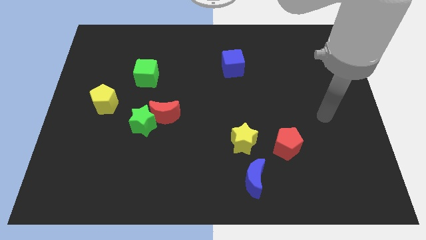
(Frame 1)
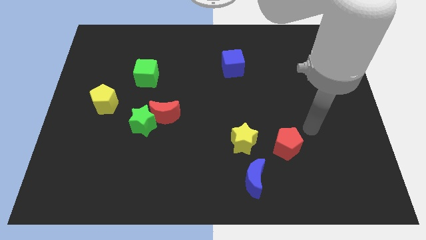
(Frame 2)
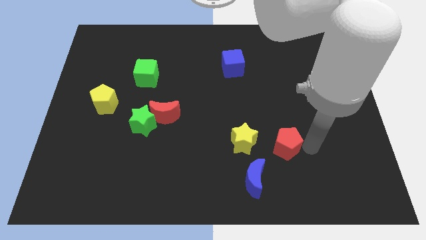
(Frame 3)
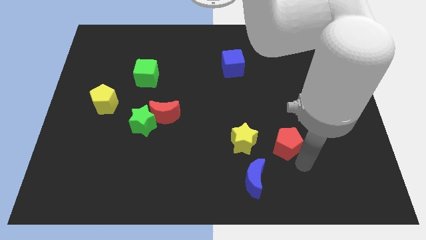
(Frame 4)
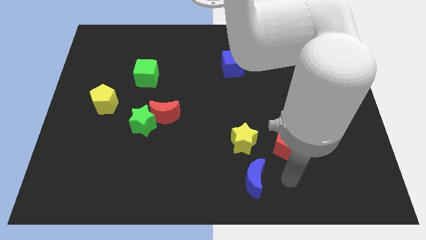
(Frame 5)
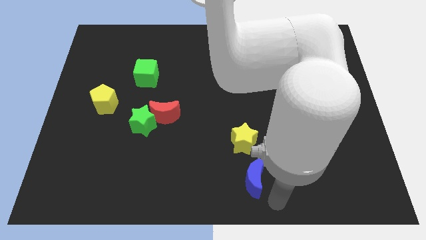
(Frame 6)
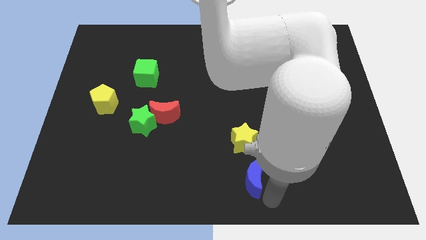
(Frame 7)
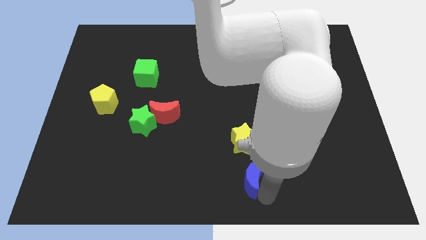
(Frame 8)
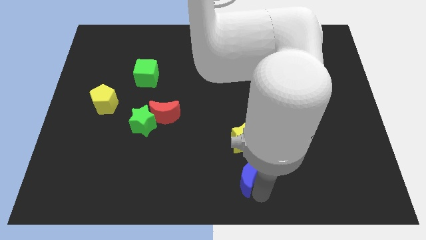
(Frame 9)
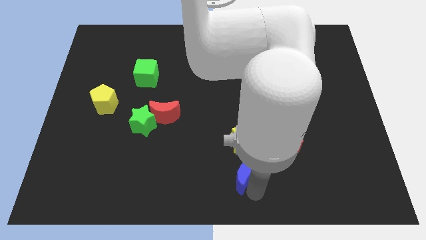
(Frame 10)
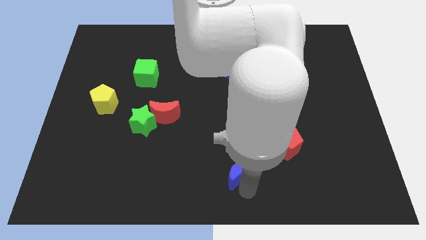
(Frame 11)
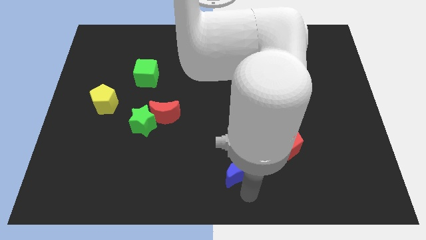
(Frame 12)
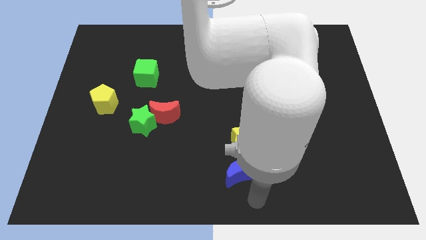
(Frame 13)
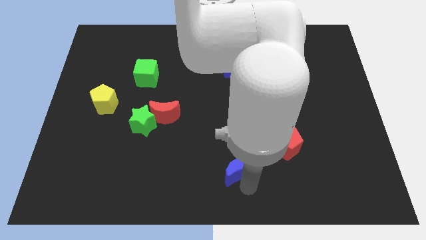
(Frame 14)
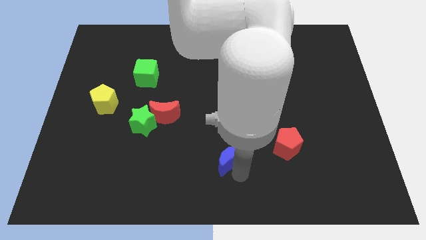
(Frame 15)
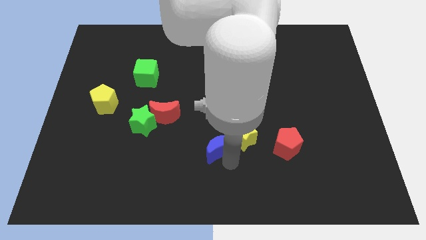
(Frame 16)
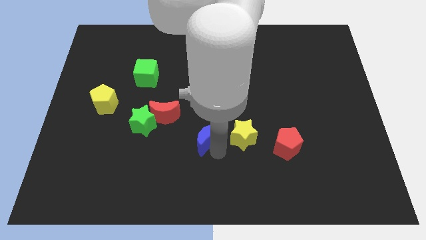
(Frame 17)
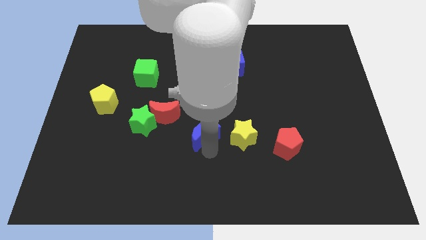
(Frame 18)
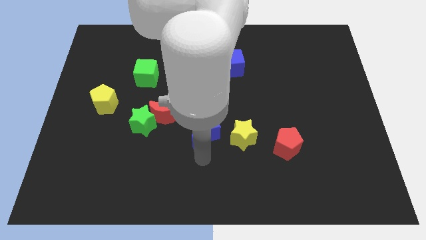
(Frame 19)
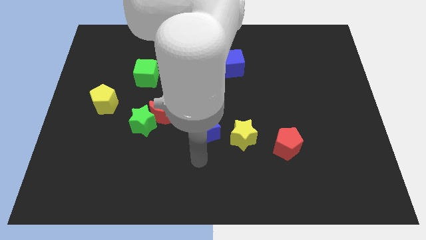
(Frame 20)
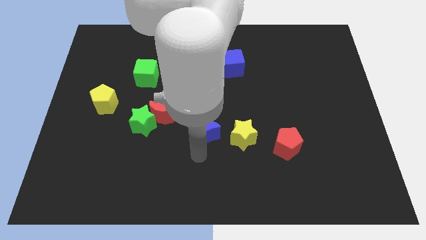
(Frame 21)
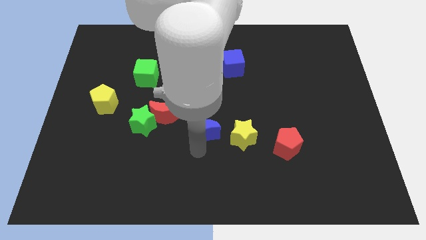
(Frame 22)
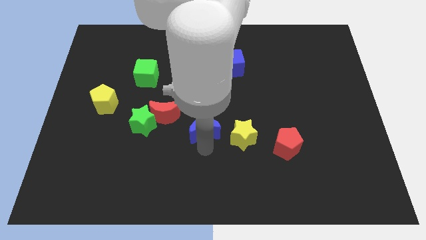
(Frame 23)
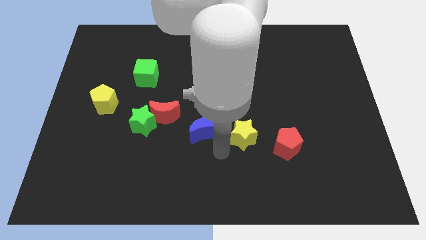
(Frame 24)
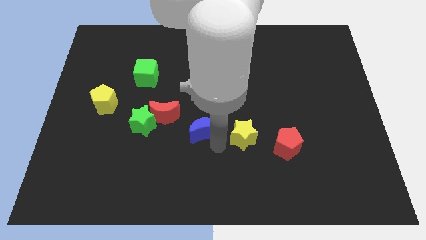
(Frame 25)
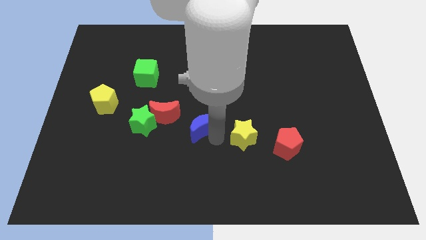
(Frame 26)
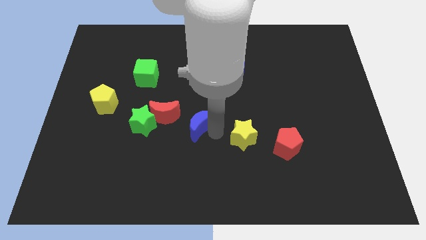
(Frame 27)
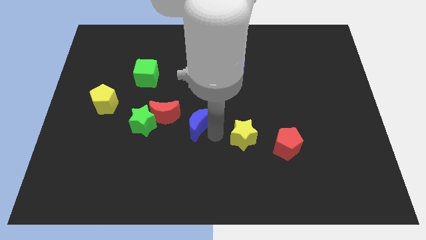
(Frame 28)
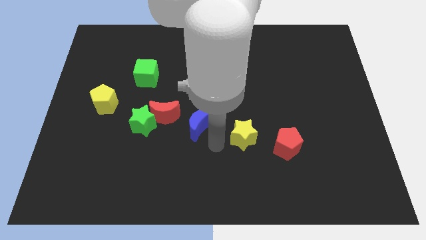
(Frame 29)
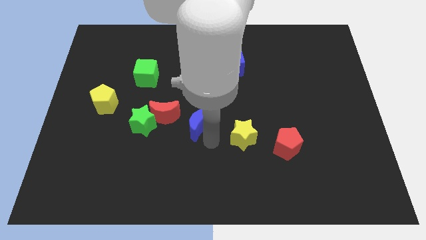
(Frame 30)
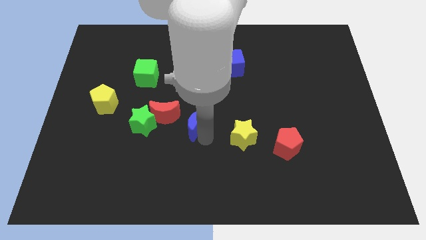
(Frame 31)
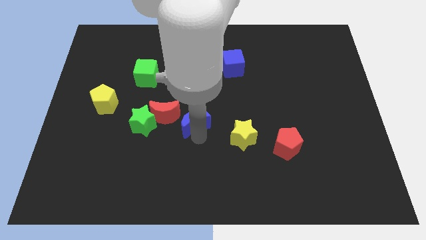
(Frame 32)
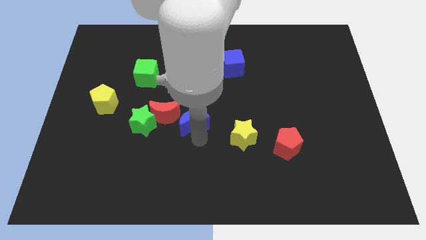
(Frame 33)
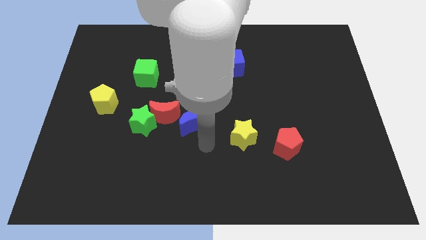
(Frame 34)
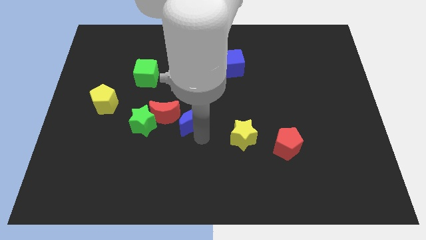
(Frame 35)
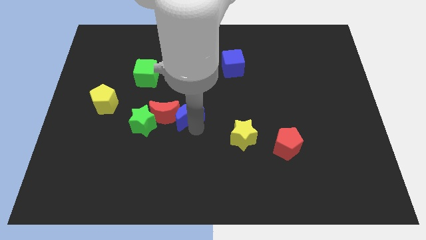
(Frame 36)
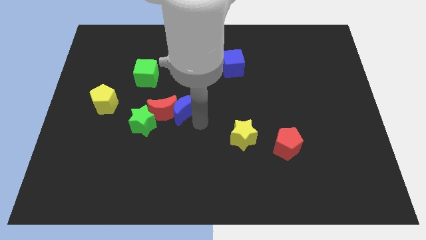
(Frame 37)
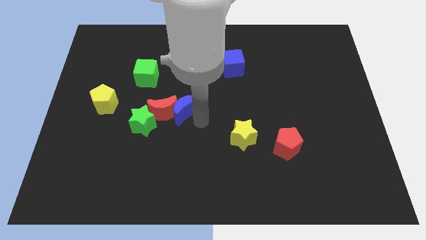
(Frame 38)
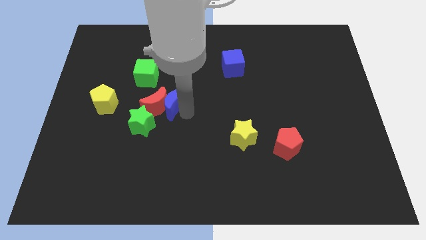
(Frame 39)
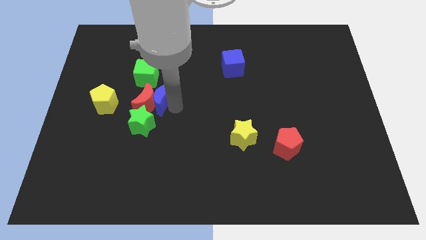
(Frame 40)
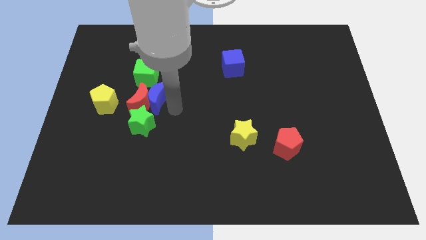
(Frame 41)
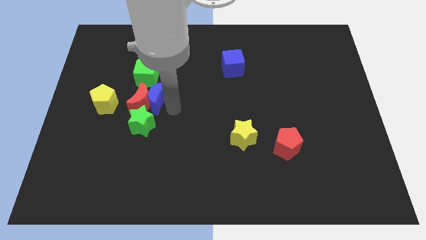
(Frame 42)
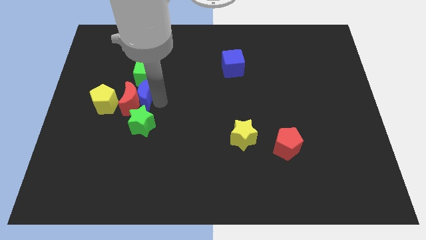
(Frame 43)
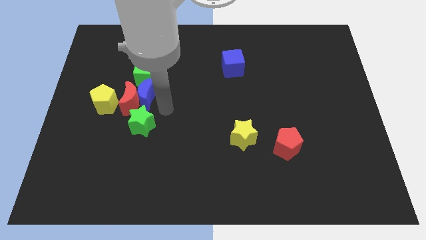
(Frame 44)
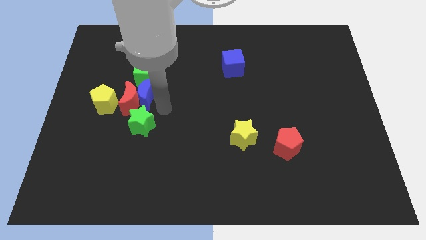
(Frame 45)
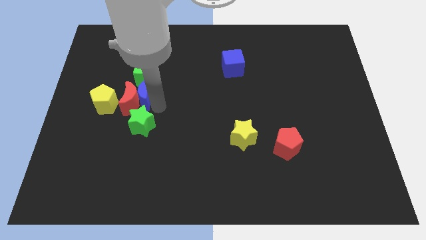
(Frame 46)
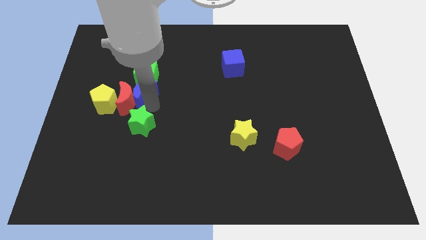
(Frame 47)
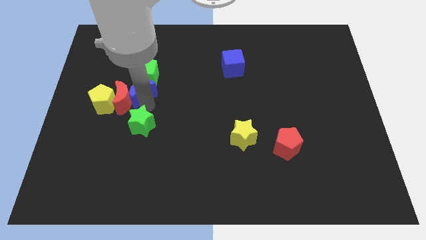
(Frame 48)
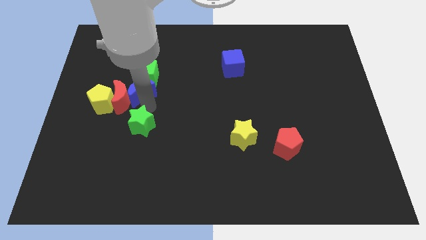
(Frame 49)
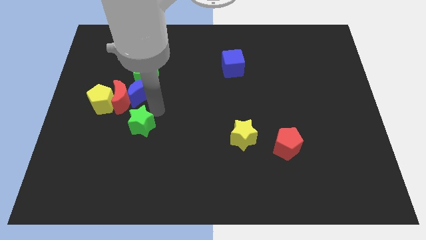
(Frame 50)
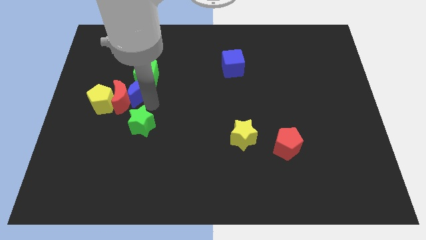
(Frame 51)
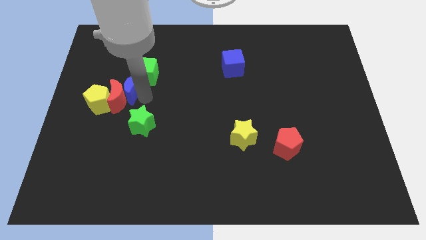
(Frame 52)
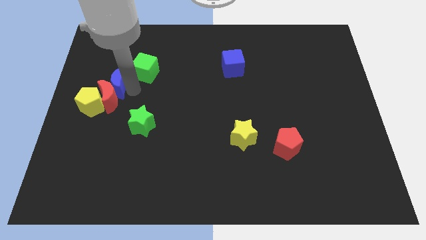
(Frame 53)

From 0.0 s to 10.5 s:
put the blue moon to the left side of the green cube

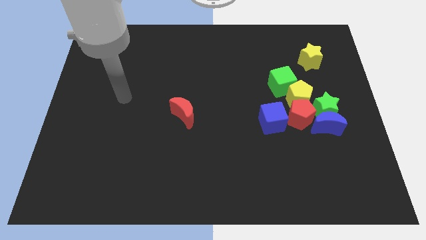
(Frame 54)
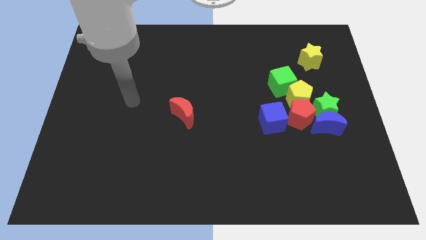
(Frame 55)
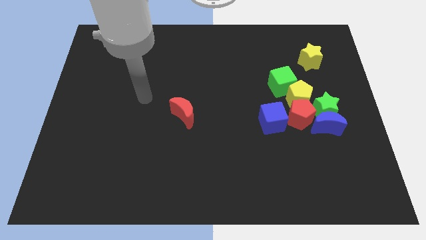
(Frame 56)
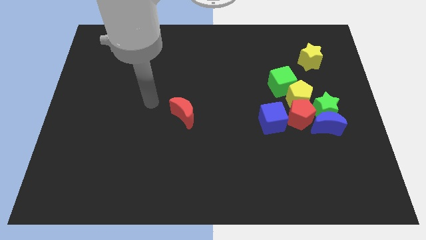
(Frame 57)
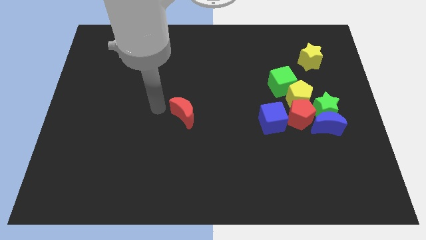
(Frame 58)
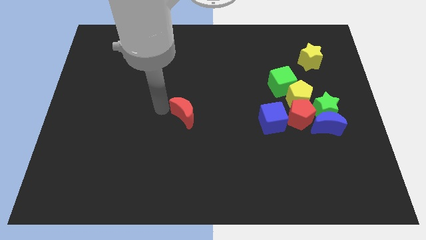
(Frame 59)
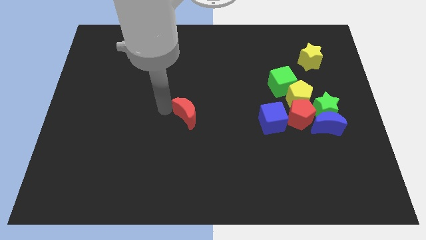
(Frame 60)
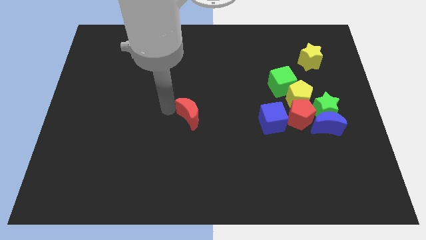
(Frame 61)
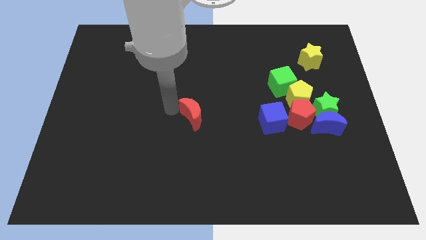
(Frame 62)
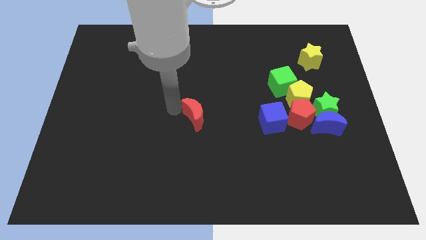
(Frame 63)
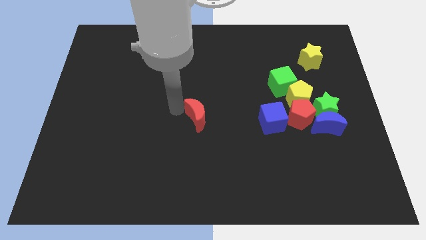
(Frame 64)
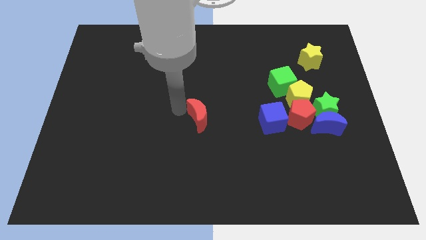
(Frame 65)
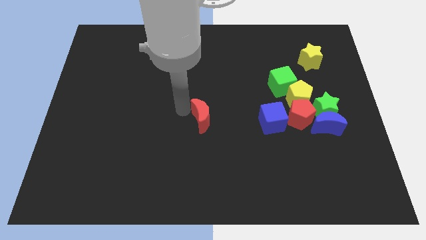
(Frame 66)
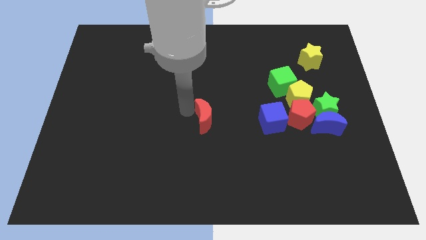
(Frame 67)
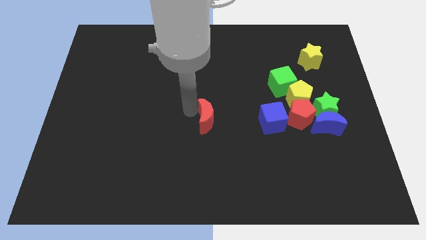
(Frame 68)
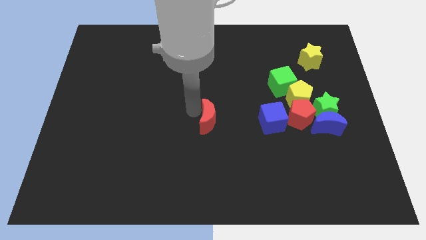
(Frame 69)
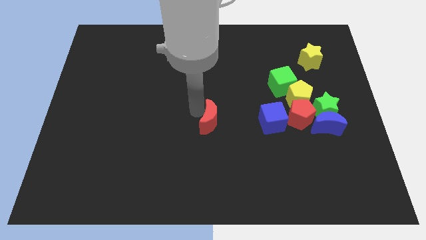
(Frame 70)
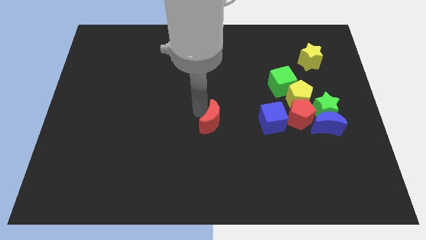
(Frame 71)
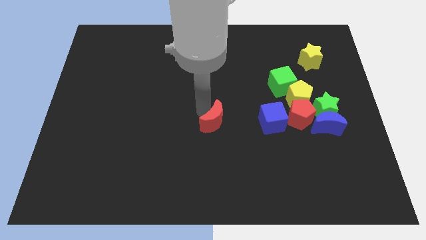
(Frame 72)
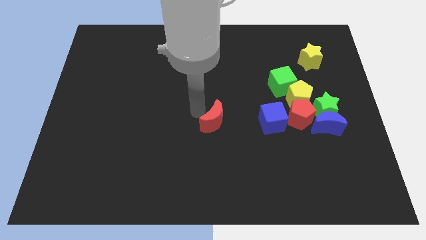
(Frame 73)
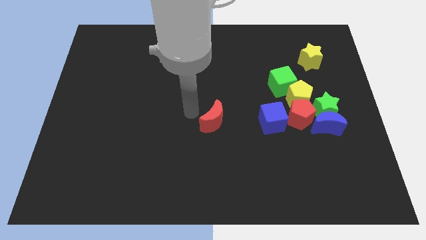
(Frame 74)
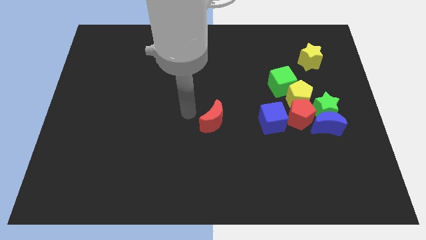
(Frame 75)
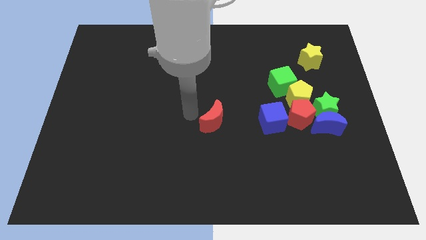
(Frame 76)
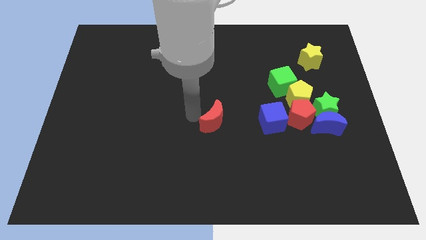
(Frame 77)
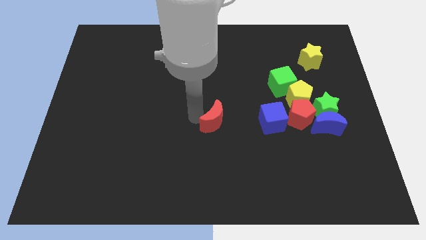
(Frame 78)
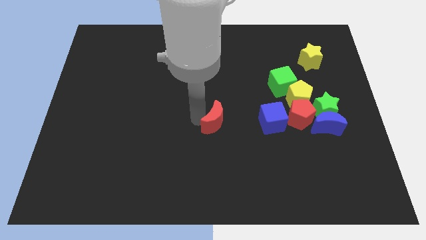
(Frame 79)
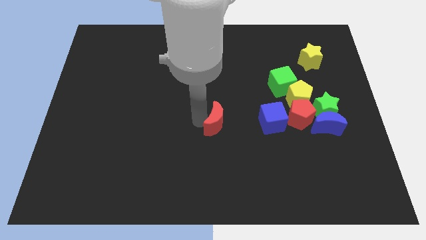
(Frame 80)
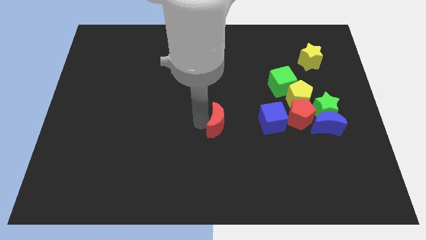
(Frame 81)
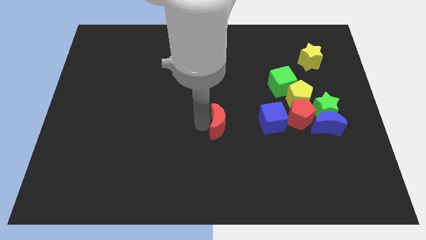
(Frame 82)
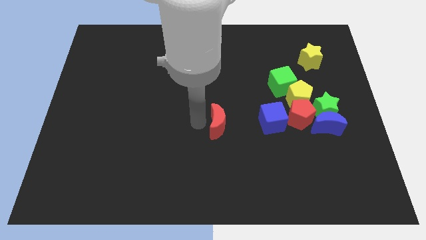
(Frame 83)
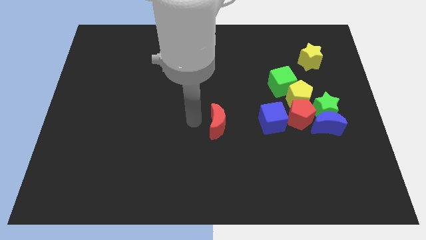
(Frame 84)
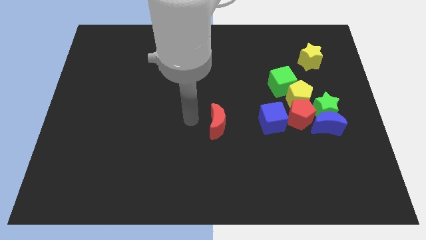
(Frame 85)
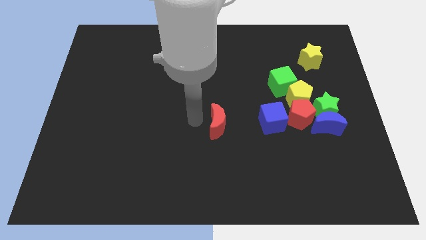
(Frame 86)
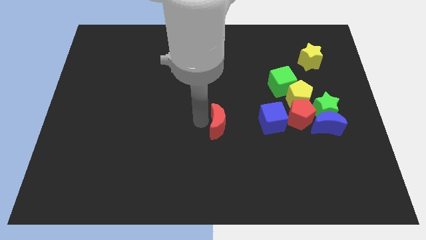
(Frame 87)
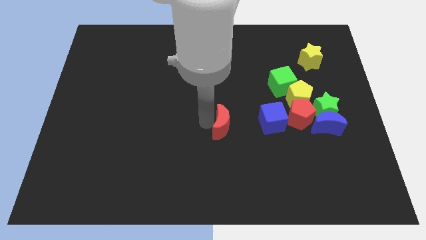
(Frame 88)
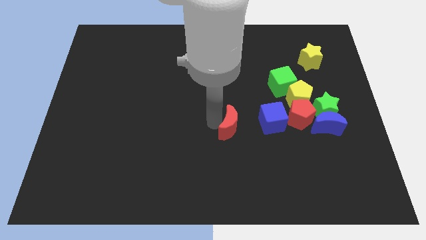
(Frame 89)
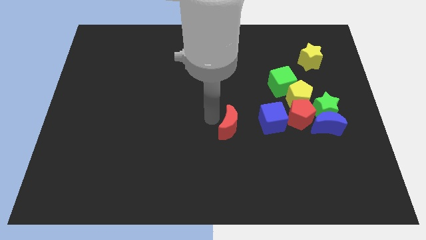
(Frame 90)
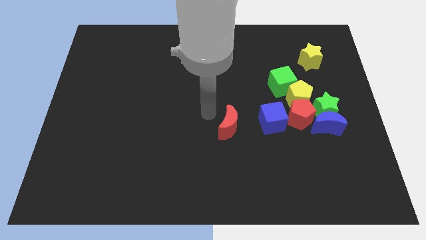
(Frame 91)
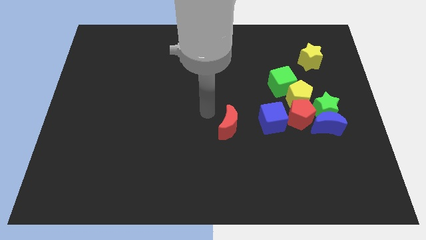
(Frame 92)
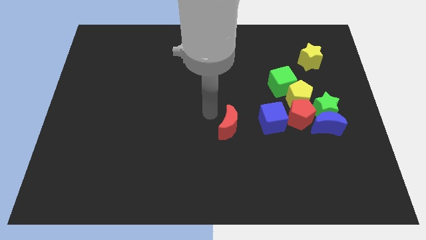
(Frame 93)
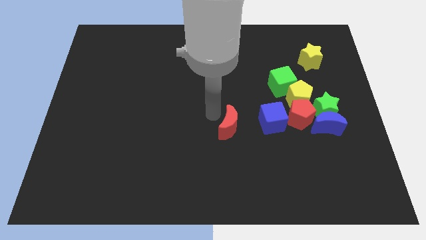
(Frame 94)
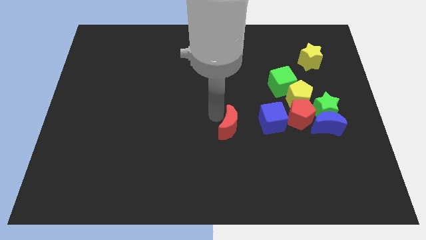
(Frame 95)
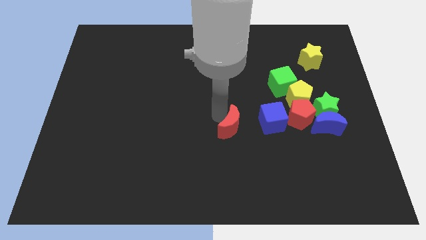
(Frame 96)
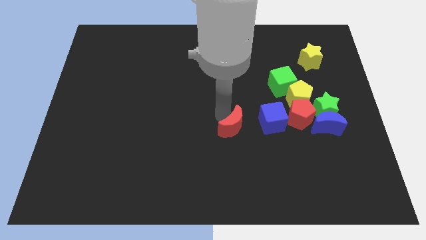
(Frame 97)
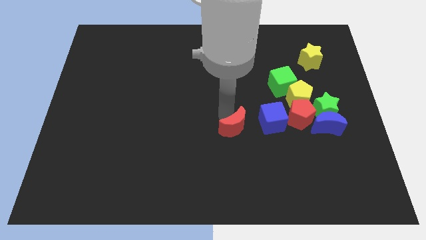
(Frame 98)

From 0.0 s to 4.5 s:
move the red moon to the bottom left of the blue cube
